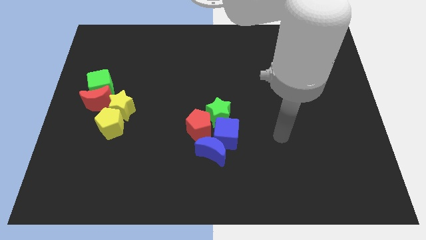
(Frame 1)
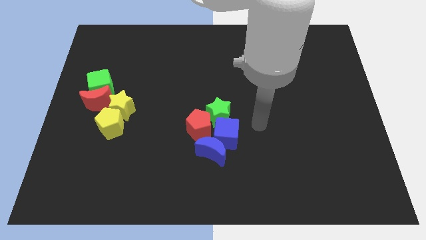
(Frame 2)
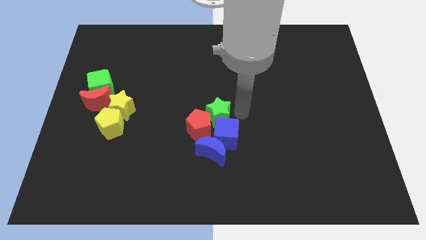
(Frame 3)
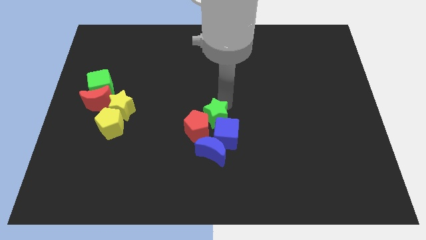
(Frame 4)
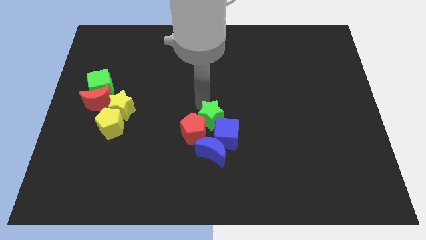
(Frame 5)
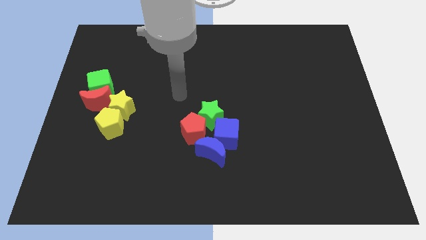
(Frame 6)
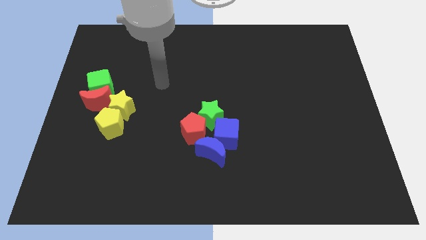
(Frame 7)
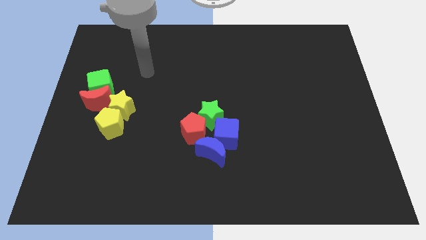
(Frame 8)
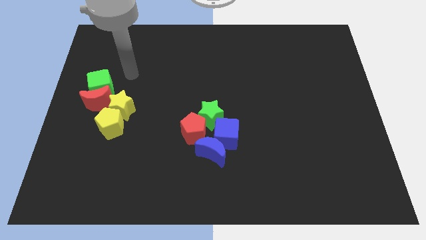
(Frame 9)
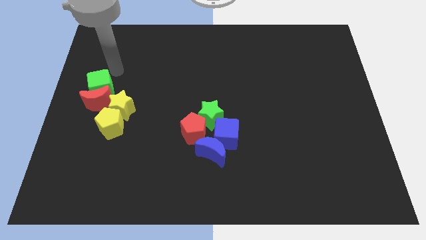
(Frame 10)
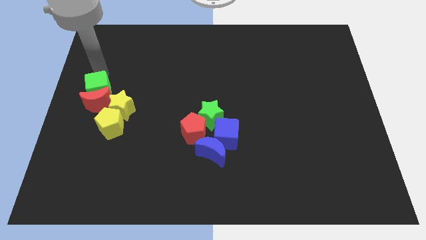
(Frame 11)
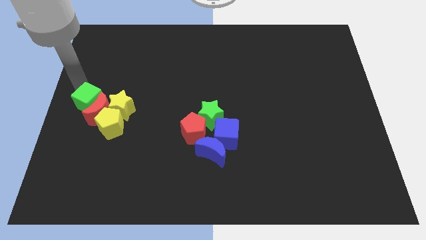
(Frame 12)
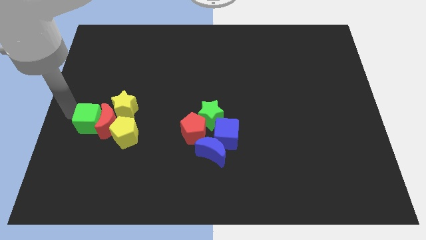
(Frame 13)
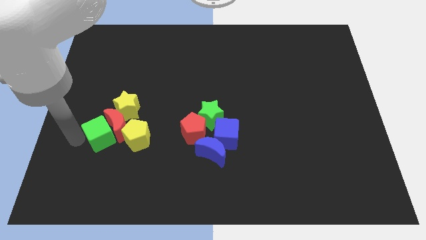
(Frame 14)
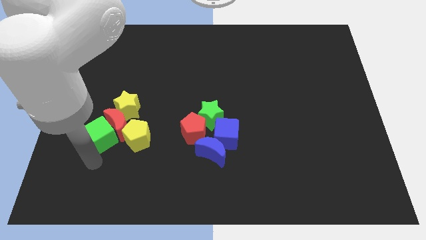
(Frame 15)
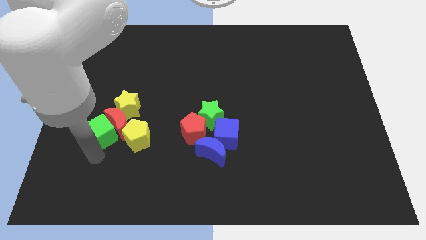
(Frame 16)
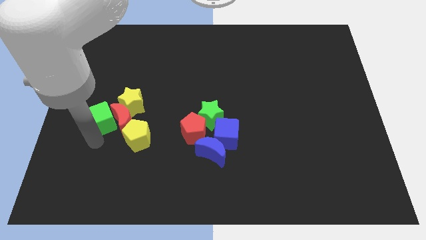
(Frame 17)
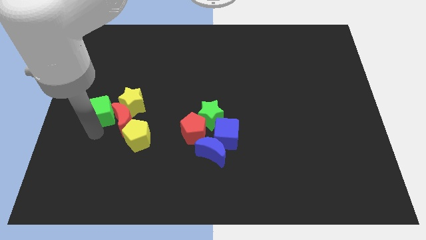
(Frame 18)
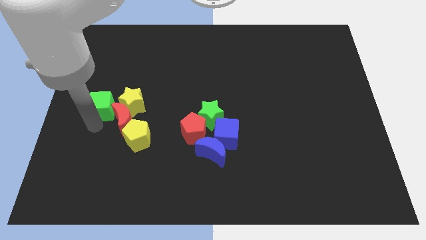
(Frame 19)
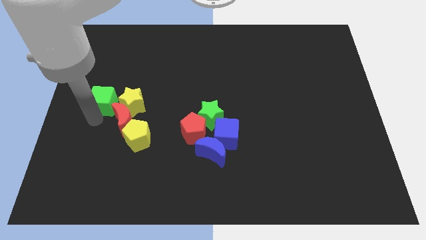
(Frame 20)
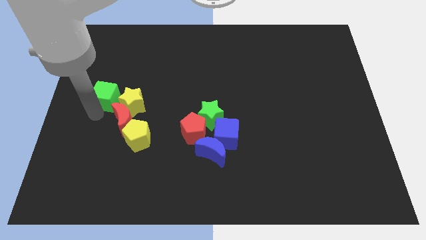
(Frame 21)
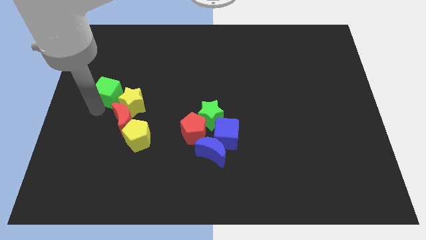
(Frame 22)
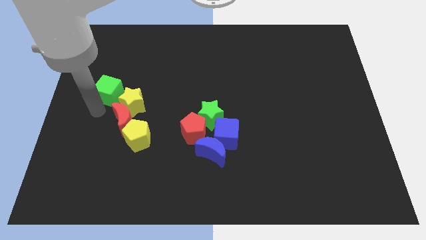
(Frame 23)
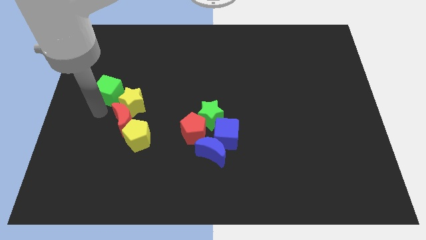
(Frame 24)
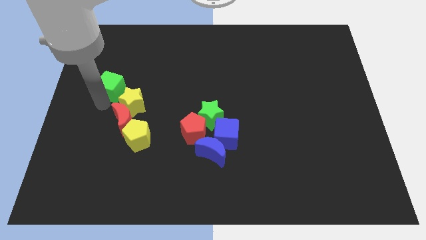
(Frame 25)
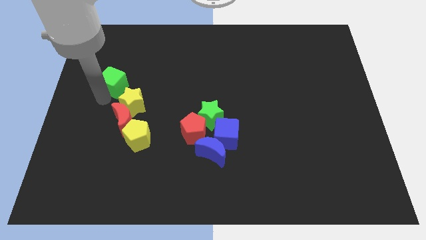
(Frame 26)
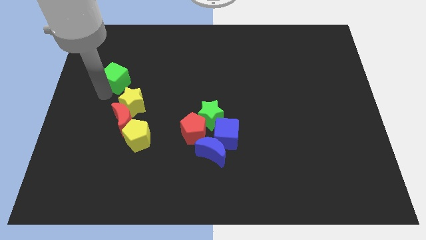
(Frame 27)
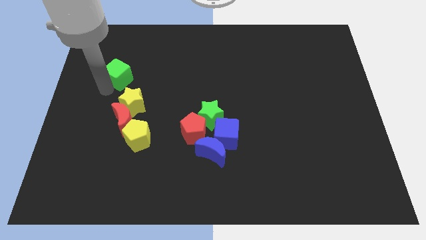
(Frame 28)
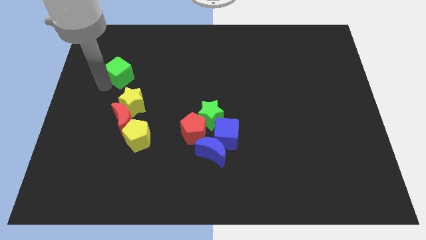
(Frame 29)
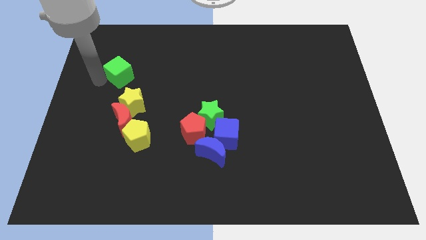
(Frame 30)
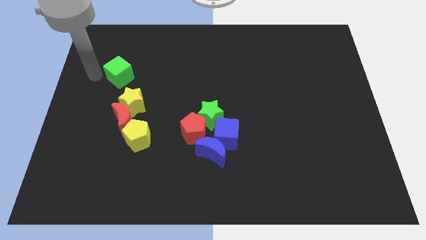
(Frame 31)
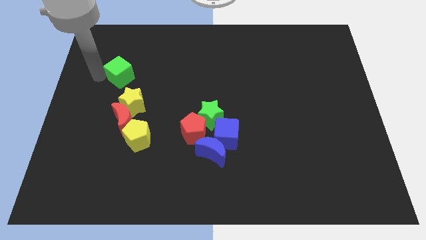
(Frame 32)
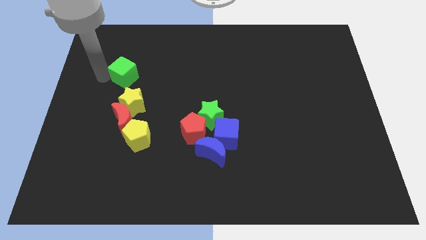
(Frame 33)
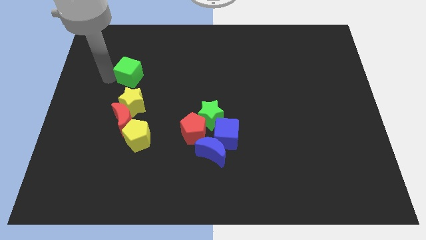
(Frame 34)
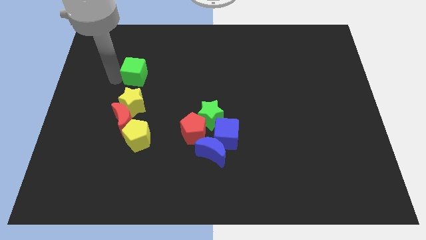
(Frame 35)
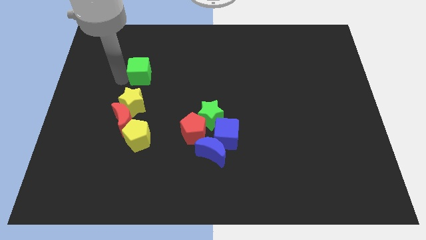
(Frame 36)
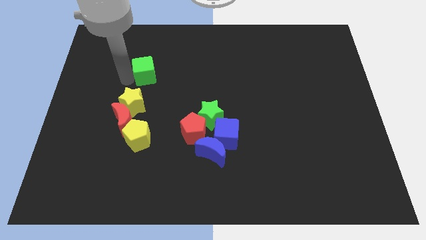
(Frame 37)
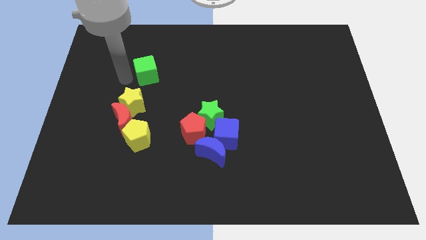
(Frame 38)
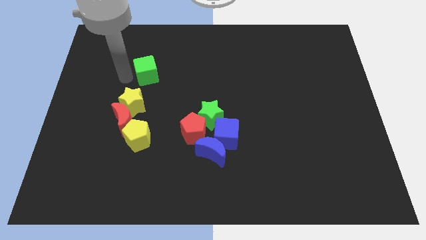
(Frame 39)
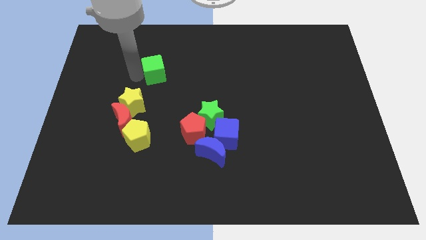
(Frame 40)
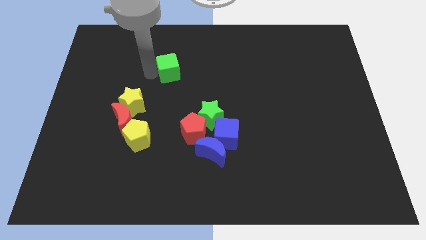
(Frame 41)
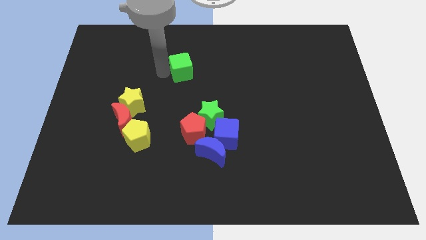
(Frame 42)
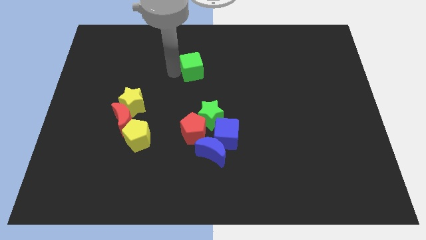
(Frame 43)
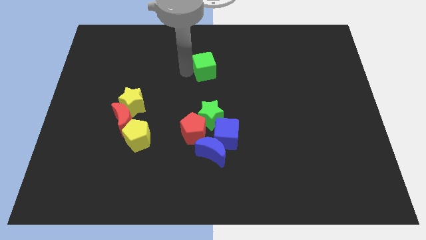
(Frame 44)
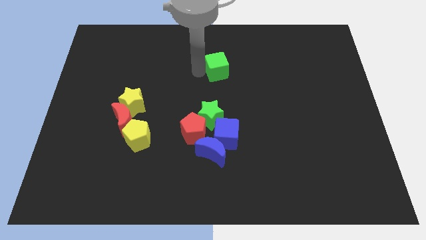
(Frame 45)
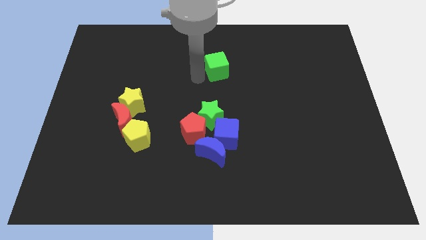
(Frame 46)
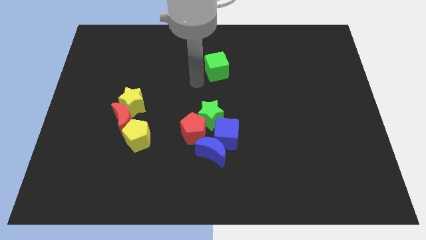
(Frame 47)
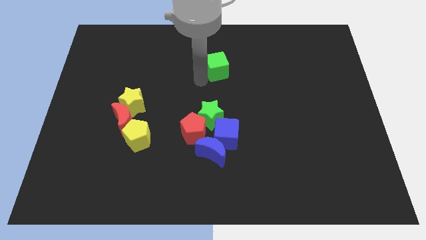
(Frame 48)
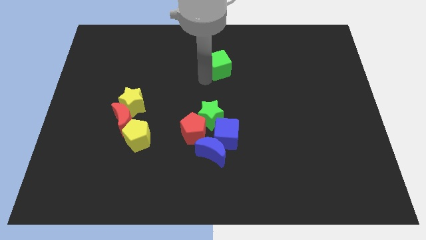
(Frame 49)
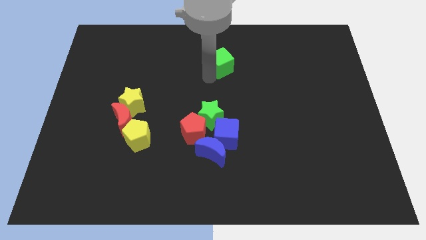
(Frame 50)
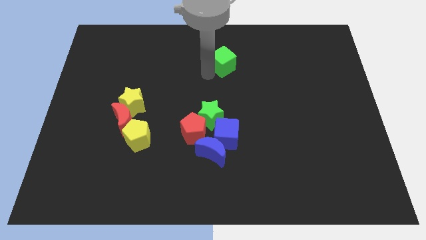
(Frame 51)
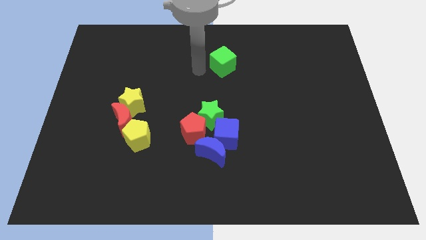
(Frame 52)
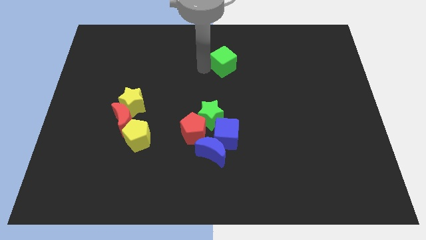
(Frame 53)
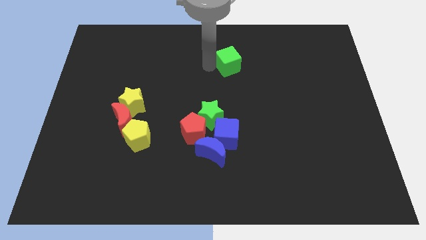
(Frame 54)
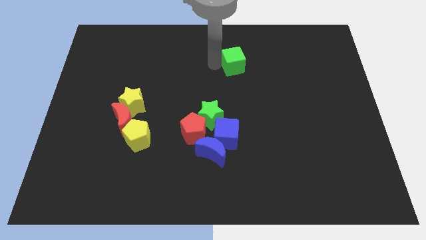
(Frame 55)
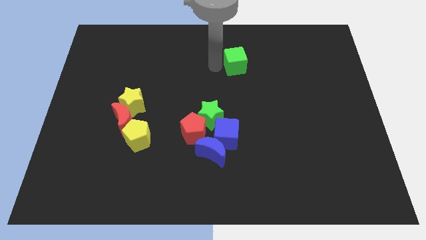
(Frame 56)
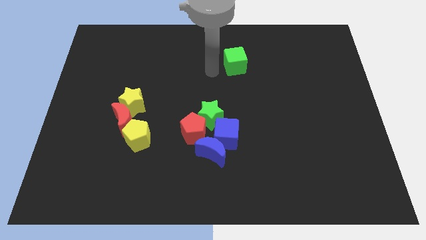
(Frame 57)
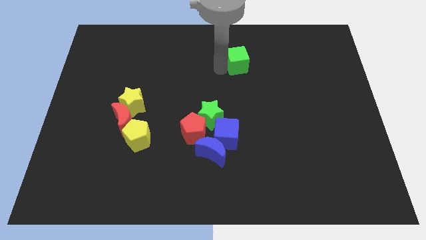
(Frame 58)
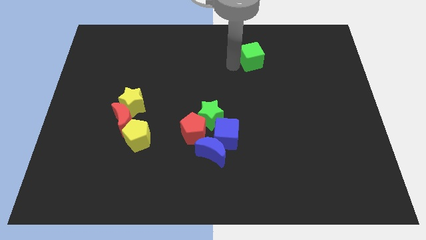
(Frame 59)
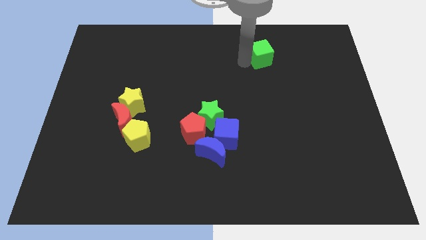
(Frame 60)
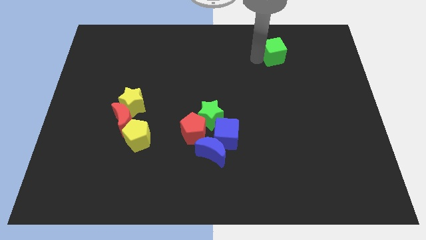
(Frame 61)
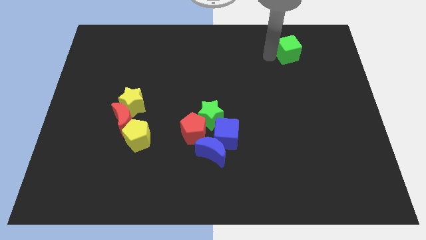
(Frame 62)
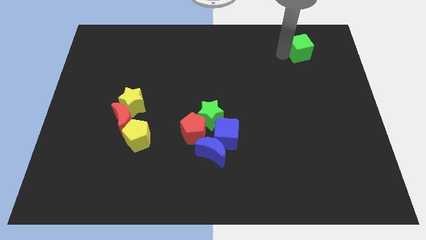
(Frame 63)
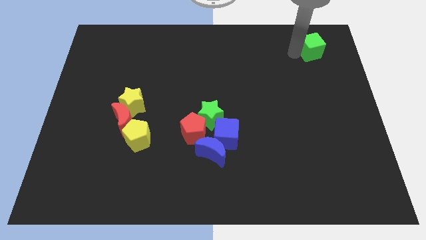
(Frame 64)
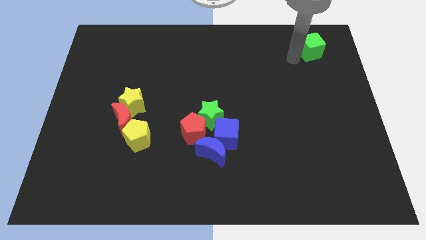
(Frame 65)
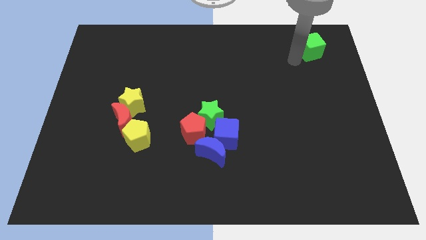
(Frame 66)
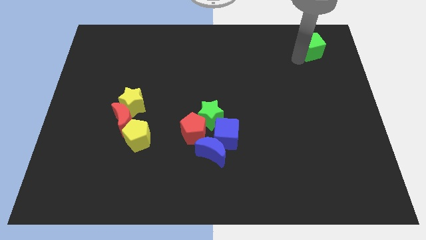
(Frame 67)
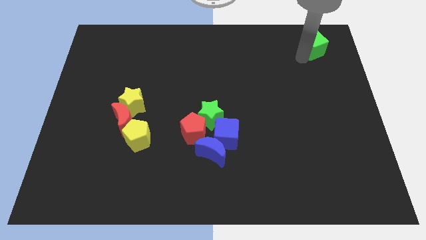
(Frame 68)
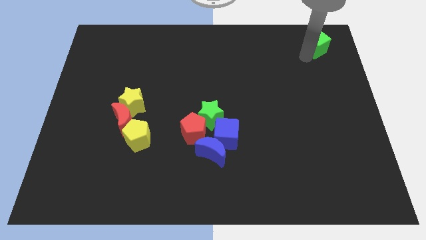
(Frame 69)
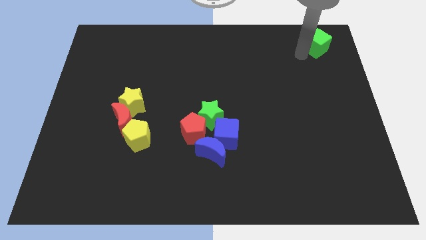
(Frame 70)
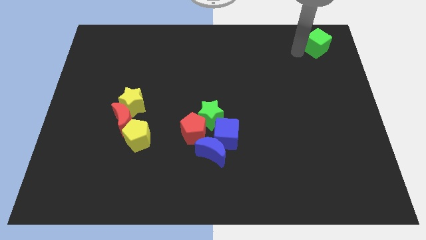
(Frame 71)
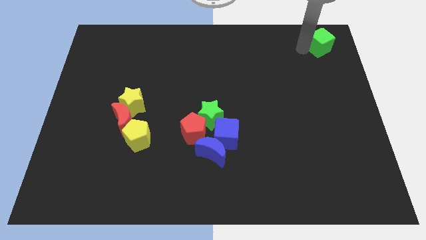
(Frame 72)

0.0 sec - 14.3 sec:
move the green cube to the top right
